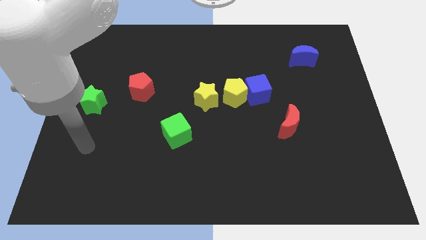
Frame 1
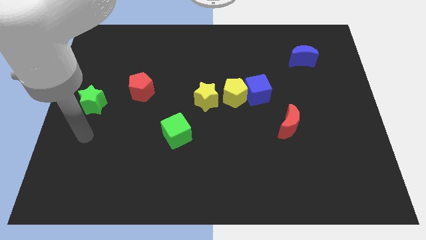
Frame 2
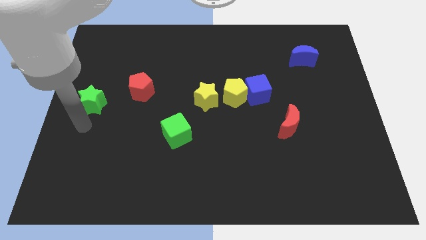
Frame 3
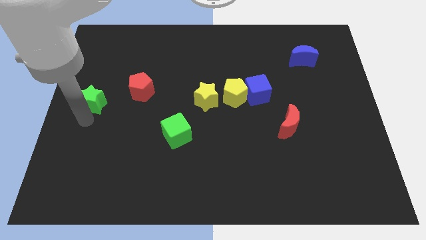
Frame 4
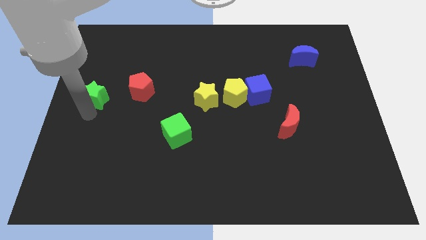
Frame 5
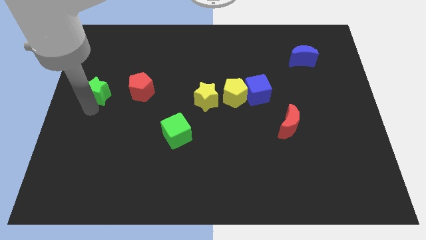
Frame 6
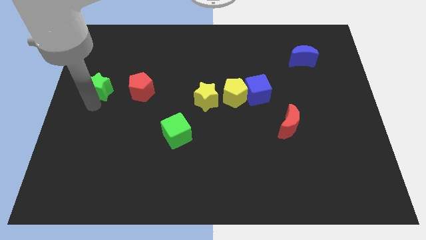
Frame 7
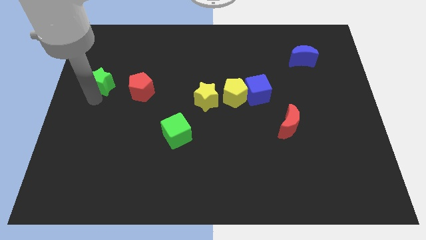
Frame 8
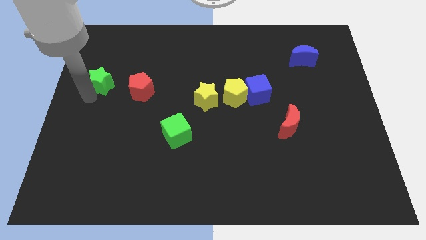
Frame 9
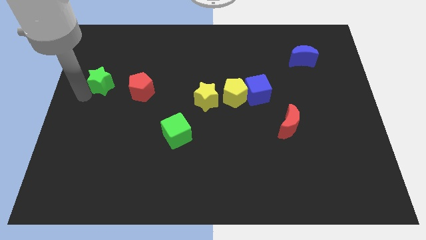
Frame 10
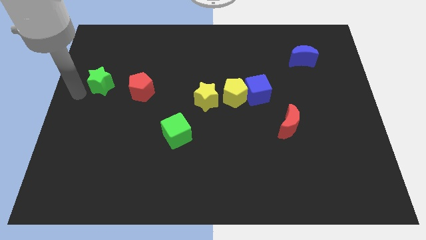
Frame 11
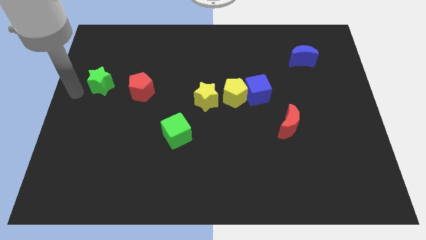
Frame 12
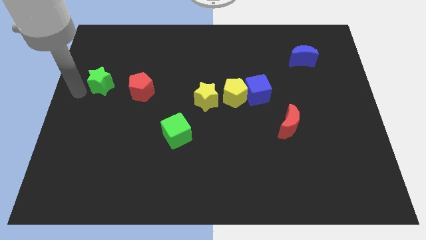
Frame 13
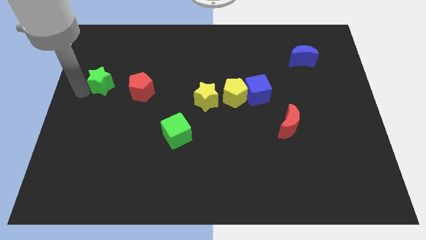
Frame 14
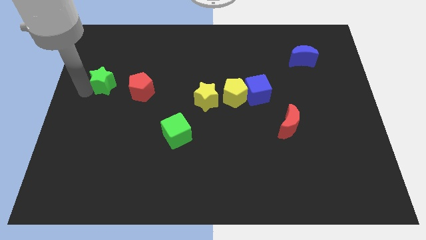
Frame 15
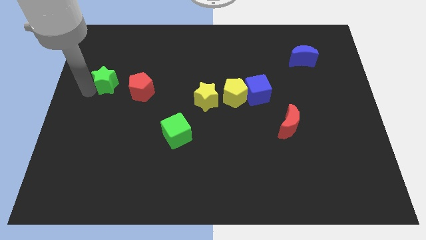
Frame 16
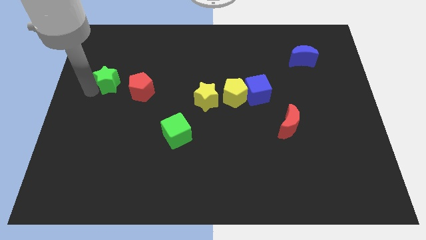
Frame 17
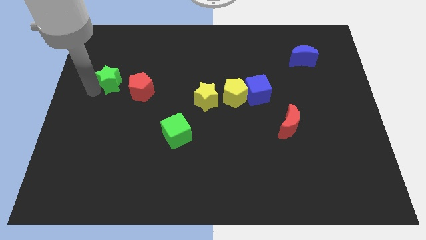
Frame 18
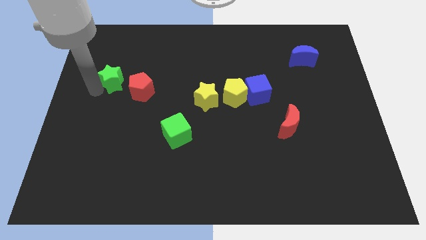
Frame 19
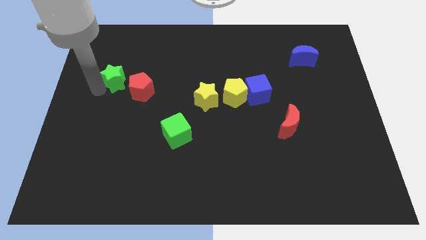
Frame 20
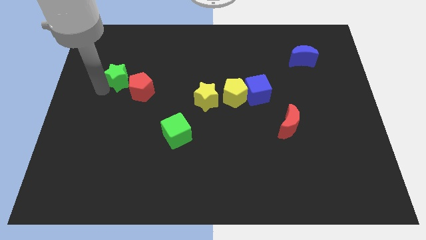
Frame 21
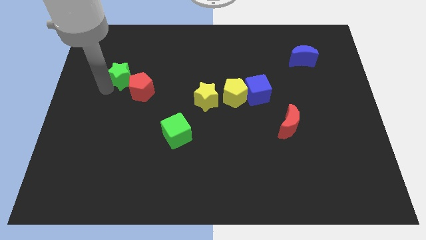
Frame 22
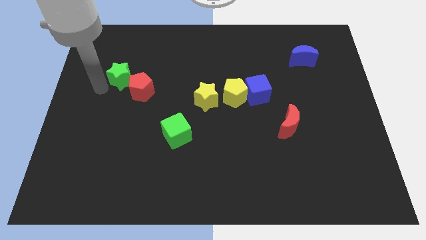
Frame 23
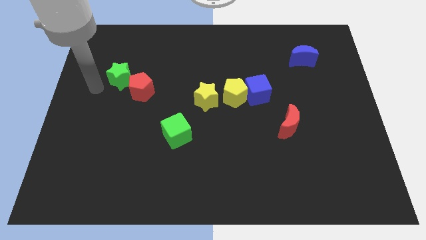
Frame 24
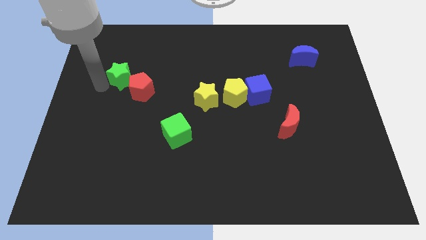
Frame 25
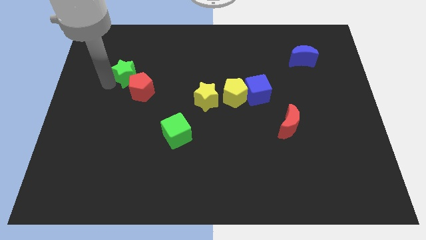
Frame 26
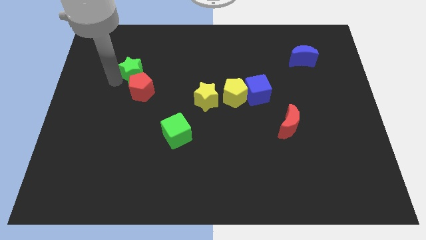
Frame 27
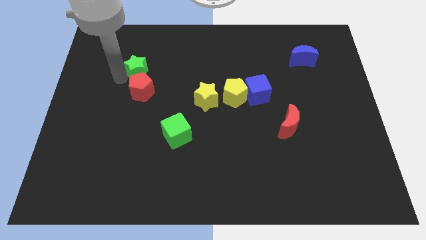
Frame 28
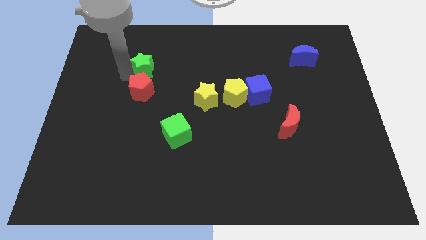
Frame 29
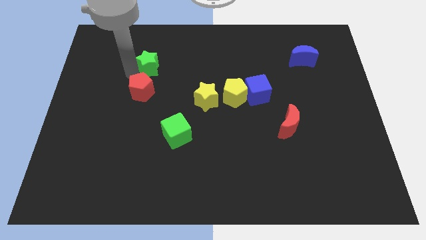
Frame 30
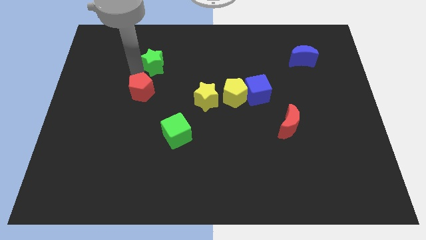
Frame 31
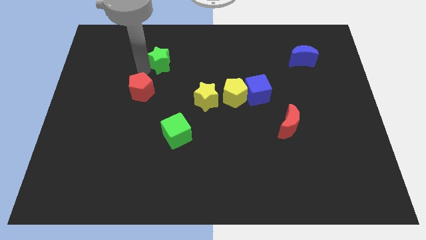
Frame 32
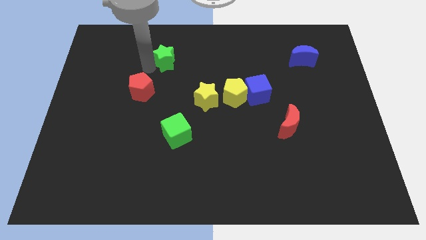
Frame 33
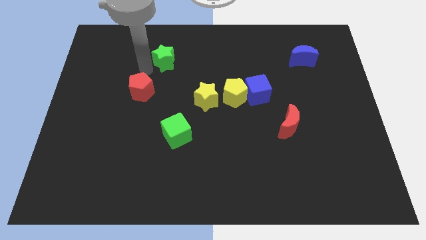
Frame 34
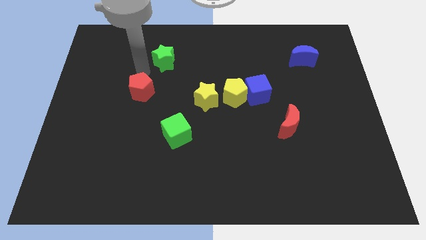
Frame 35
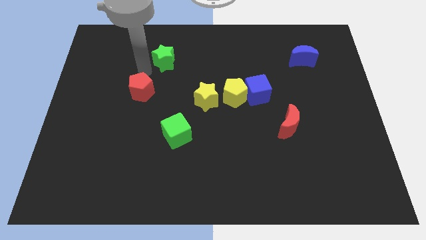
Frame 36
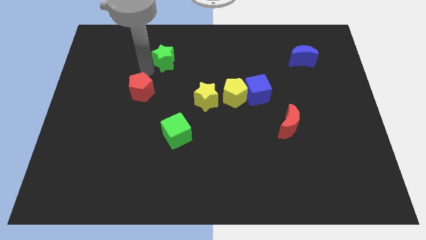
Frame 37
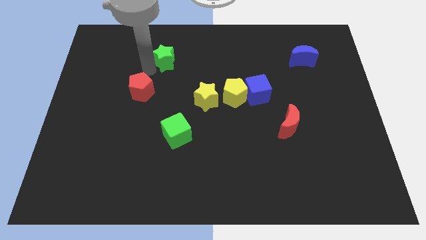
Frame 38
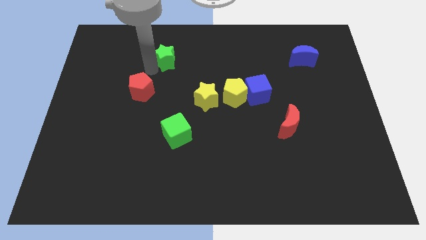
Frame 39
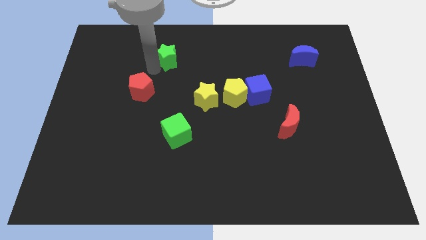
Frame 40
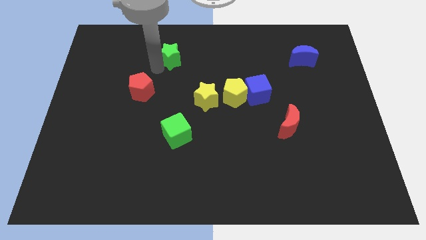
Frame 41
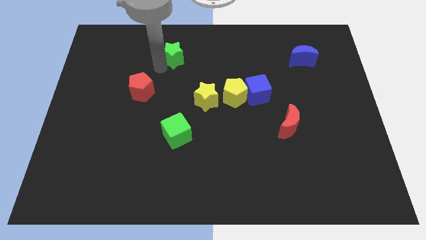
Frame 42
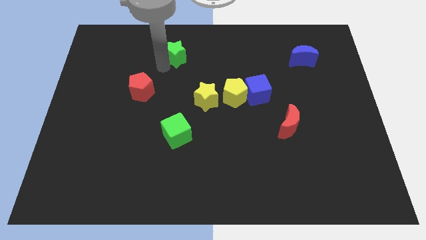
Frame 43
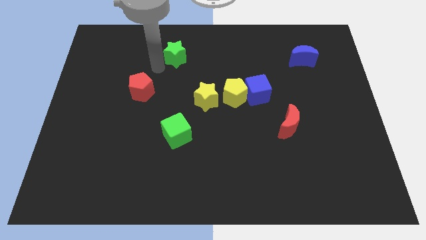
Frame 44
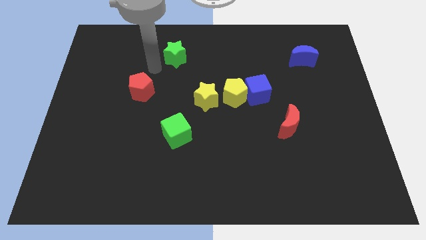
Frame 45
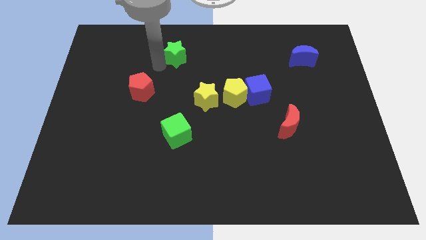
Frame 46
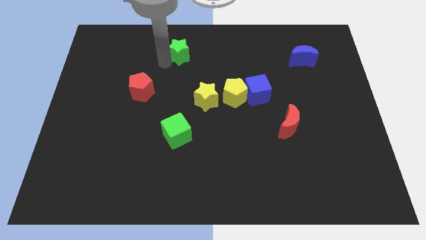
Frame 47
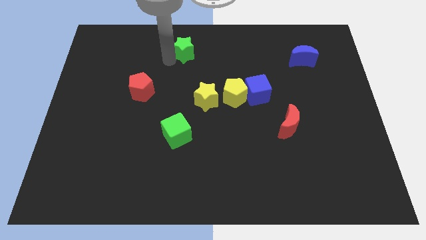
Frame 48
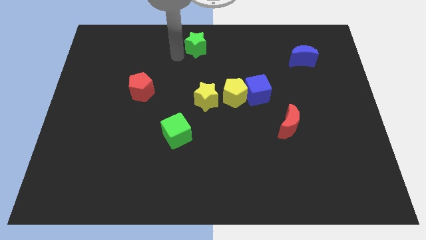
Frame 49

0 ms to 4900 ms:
move the green star to the top

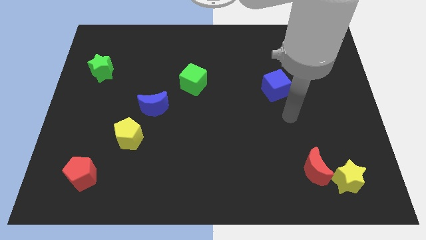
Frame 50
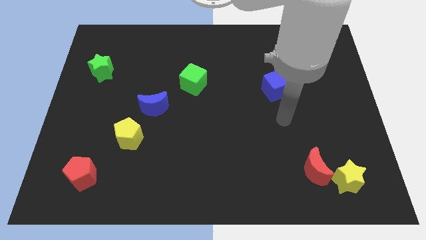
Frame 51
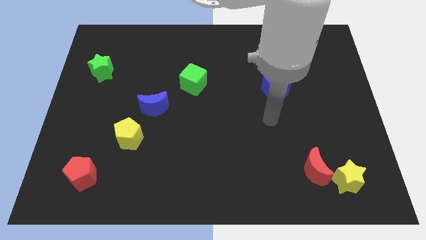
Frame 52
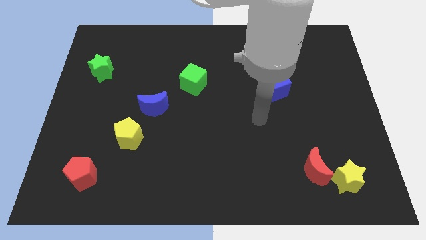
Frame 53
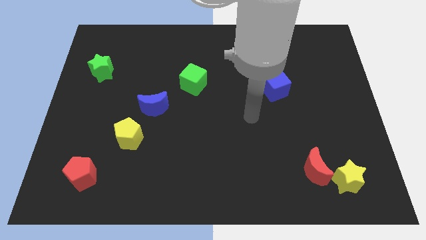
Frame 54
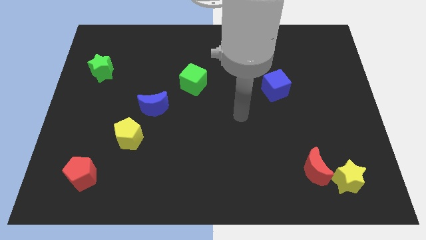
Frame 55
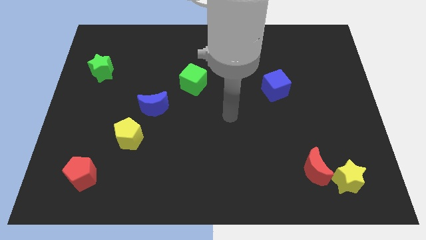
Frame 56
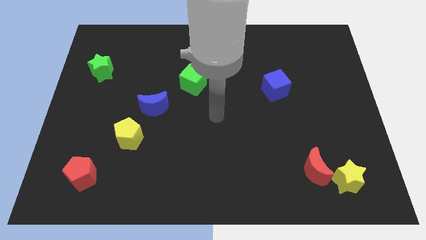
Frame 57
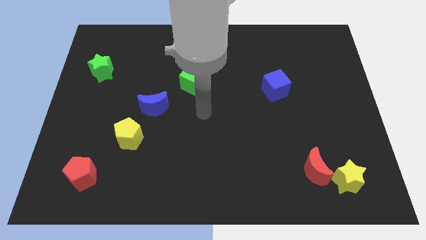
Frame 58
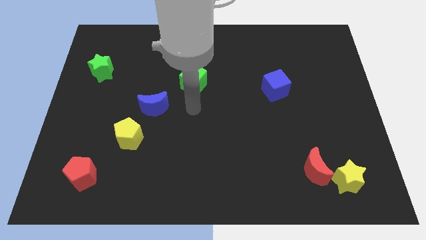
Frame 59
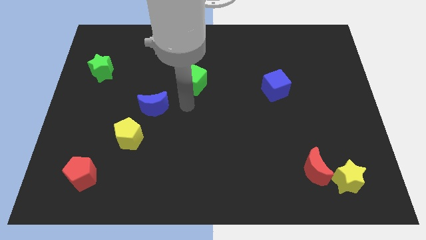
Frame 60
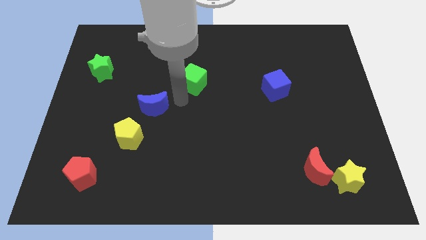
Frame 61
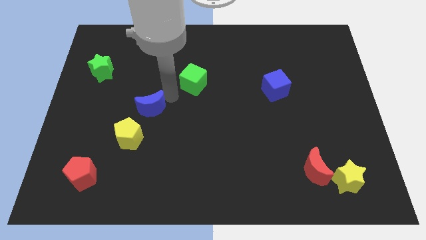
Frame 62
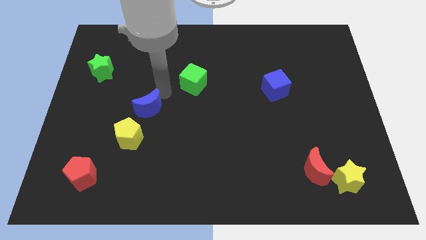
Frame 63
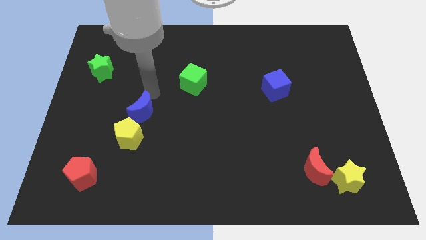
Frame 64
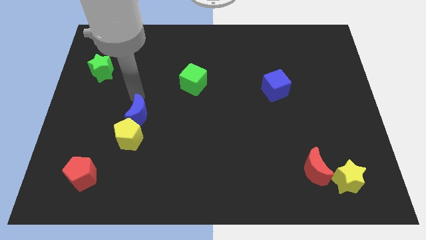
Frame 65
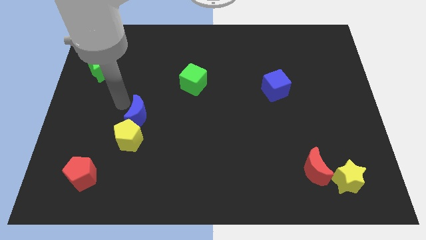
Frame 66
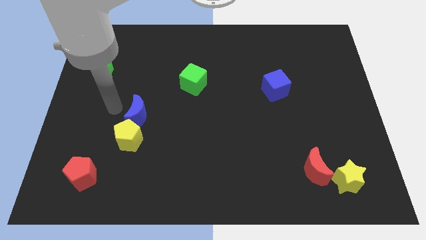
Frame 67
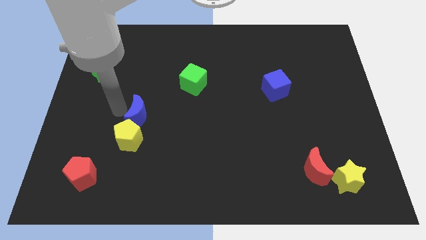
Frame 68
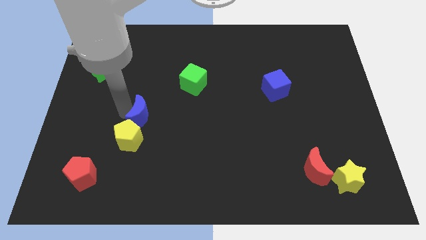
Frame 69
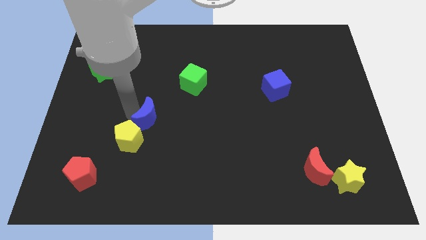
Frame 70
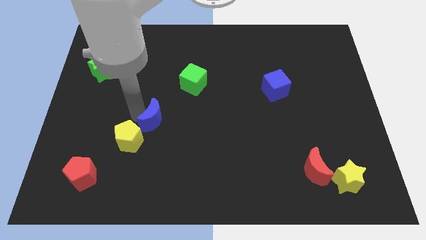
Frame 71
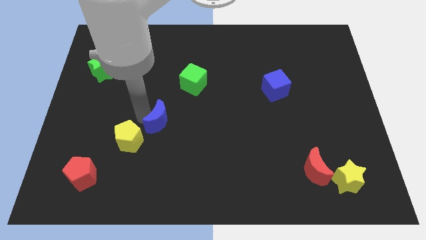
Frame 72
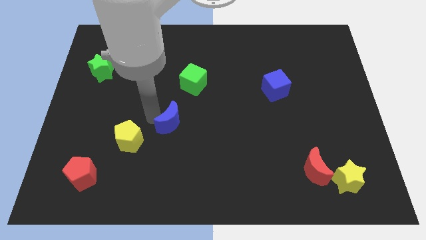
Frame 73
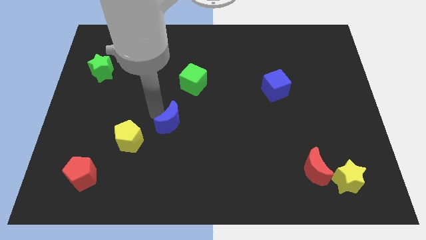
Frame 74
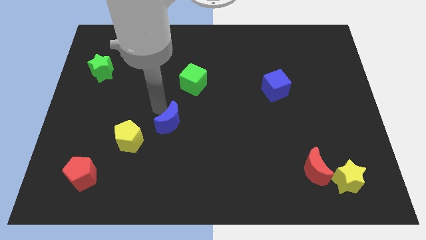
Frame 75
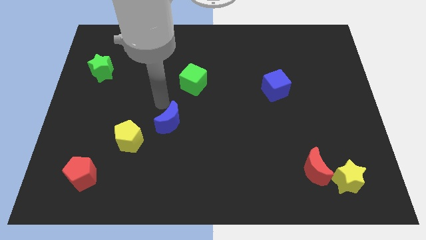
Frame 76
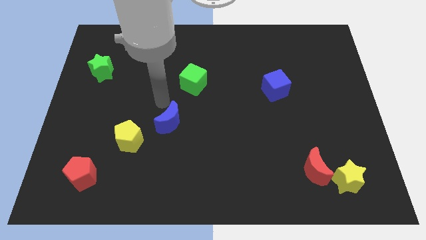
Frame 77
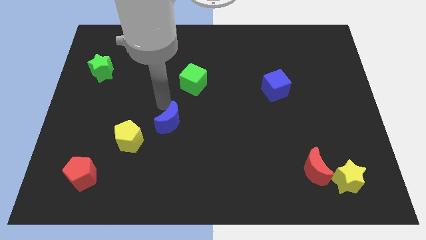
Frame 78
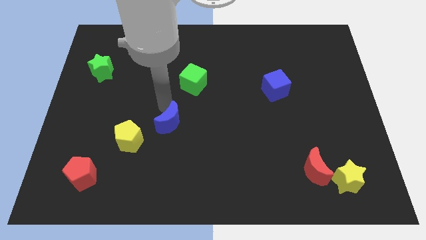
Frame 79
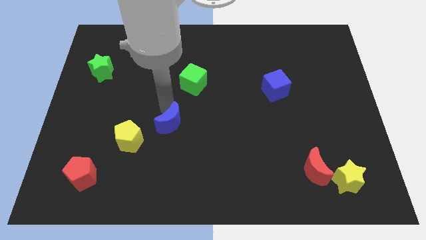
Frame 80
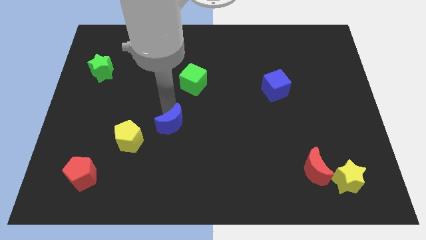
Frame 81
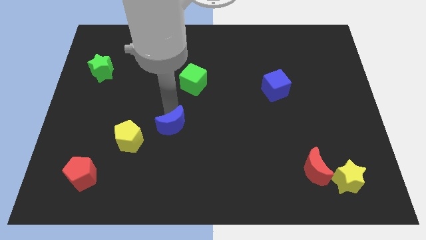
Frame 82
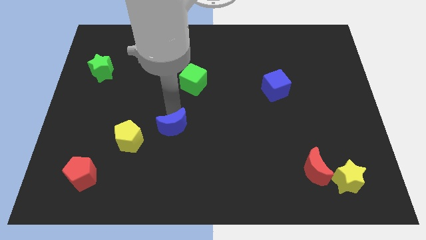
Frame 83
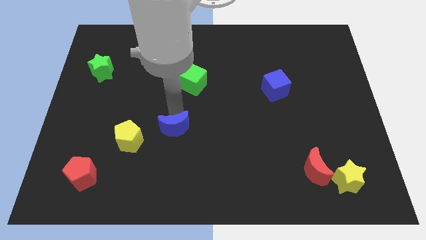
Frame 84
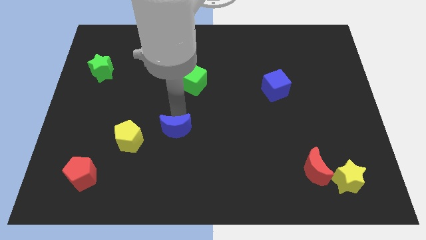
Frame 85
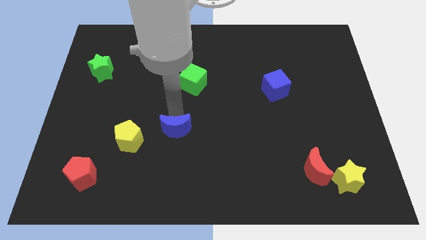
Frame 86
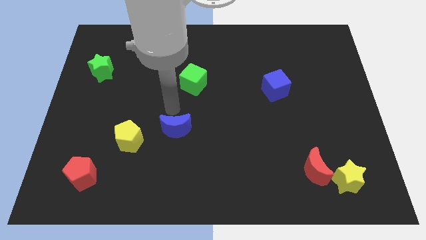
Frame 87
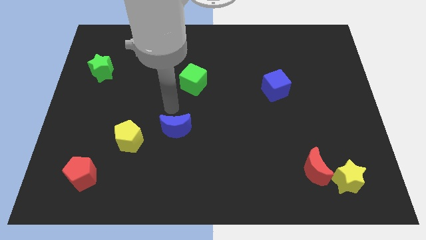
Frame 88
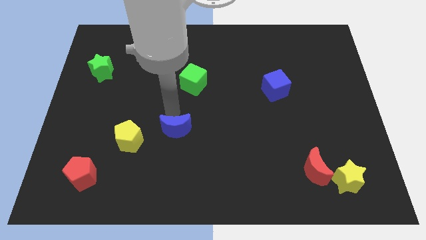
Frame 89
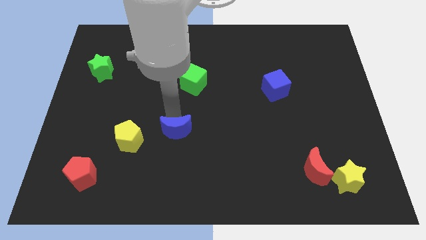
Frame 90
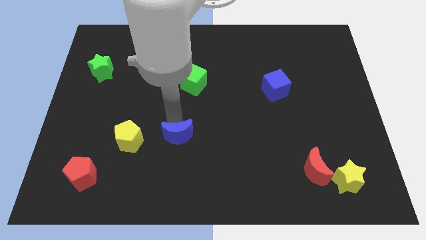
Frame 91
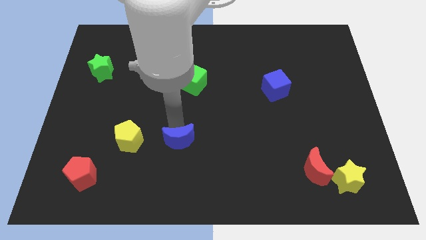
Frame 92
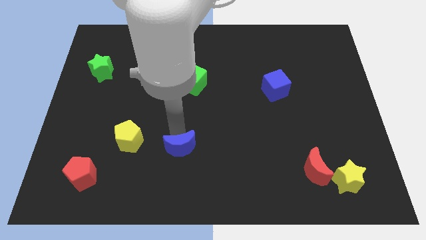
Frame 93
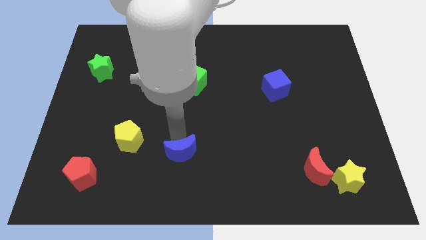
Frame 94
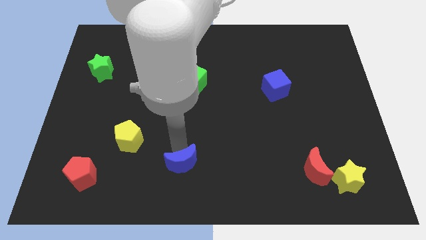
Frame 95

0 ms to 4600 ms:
put the blue moon to the bottom
